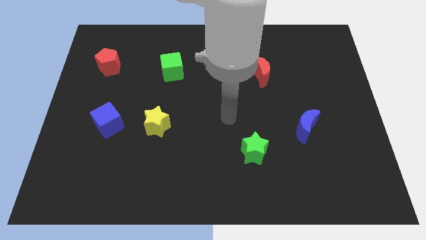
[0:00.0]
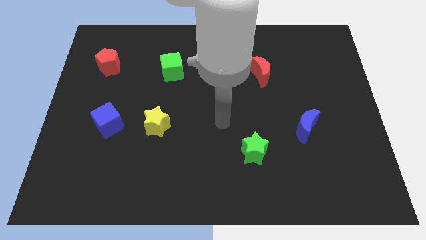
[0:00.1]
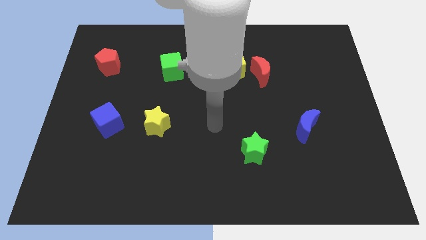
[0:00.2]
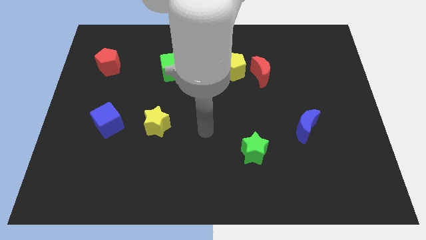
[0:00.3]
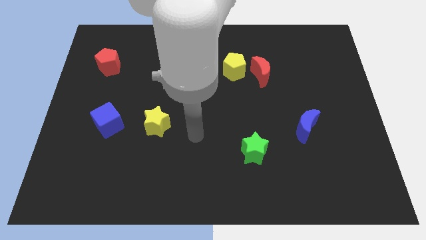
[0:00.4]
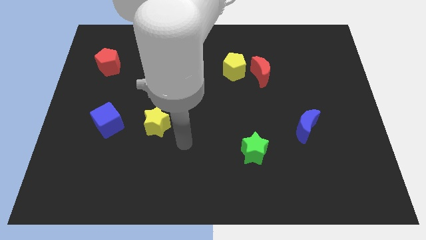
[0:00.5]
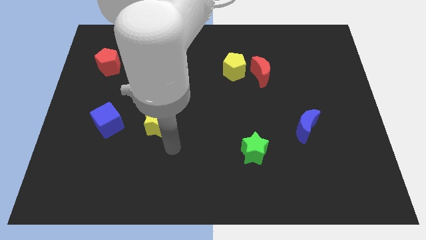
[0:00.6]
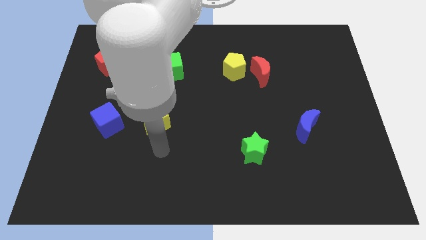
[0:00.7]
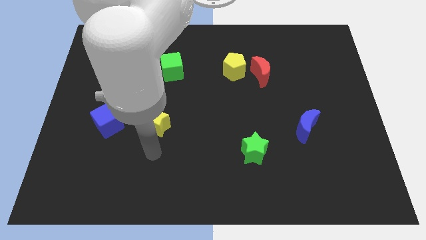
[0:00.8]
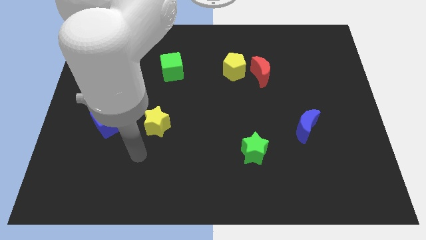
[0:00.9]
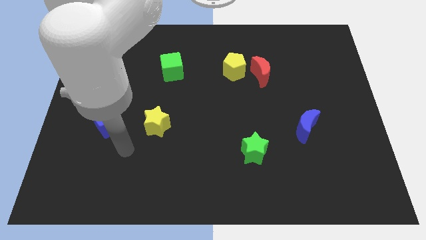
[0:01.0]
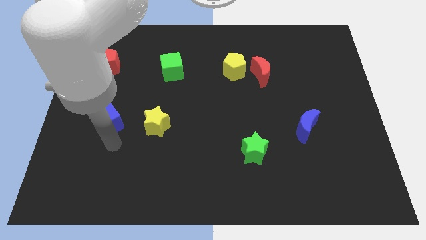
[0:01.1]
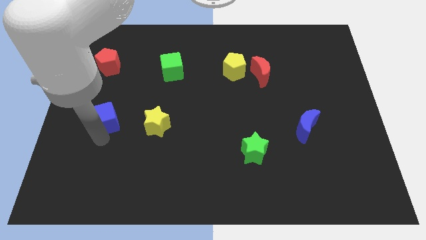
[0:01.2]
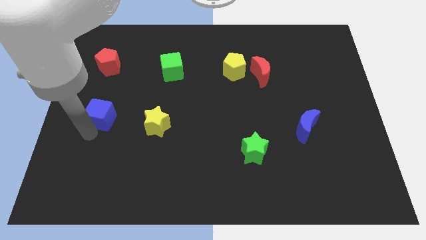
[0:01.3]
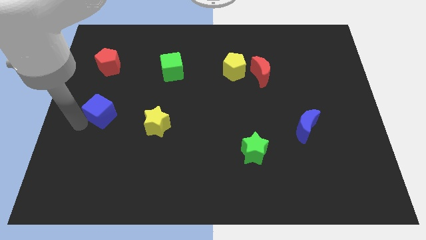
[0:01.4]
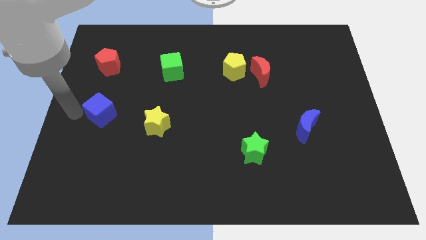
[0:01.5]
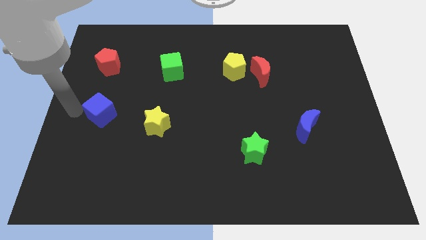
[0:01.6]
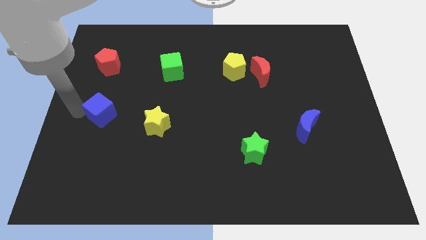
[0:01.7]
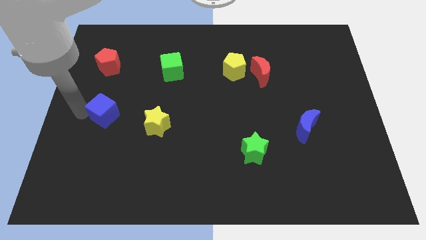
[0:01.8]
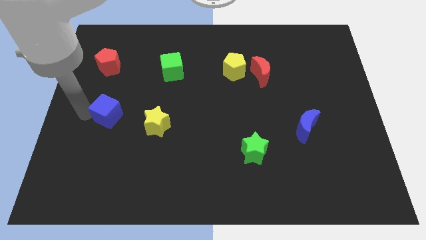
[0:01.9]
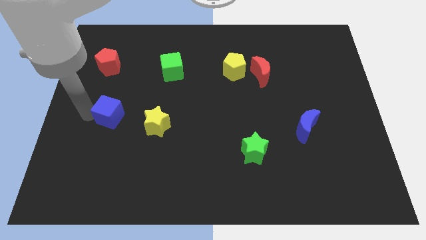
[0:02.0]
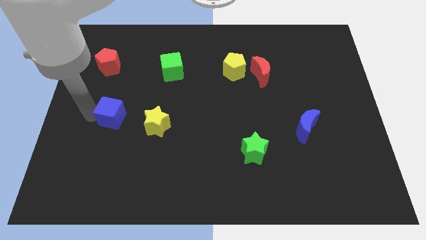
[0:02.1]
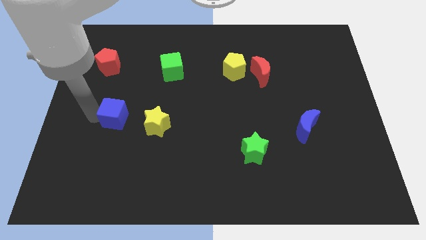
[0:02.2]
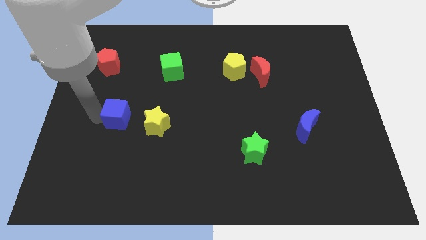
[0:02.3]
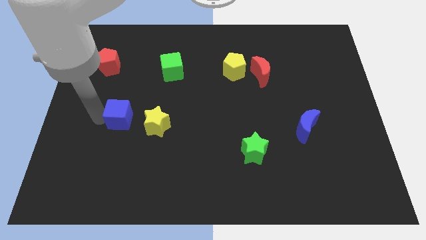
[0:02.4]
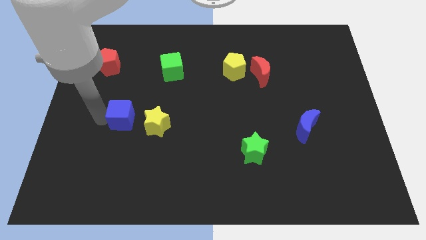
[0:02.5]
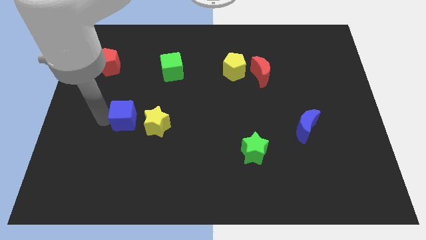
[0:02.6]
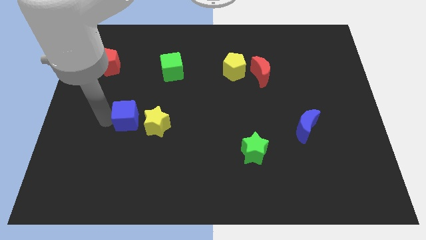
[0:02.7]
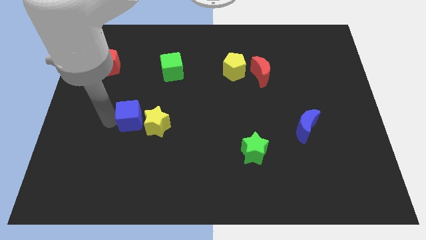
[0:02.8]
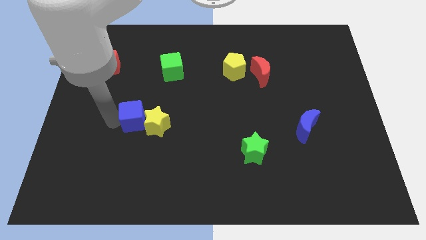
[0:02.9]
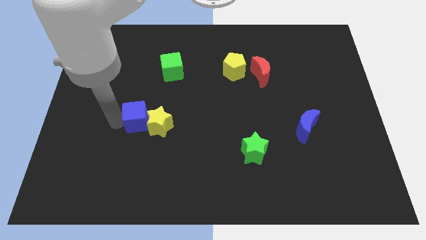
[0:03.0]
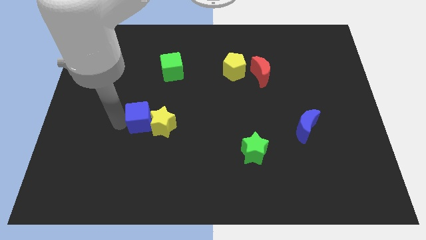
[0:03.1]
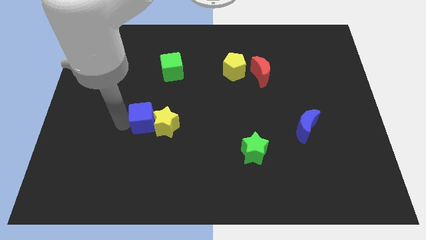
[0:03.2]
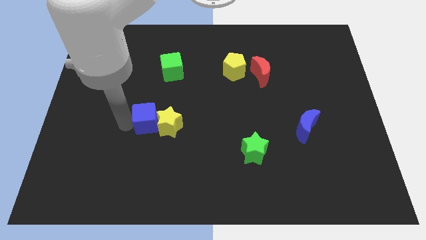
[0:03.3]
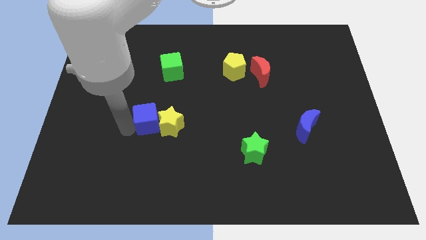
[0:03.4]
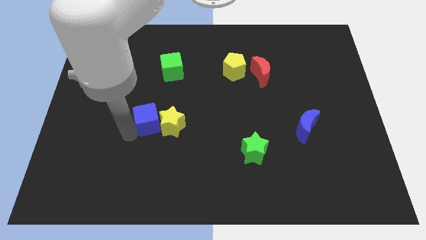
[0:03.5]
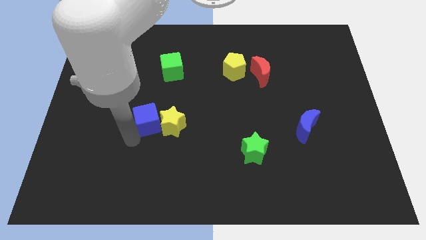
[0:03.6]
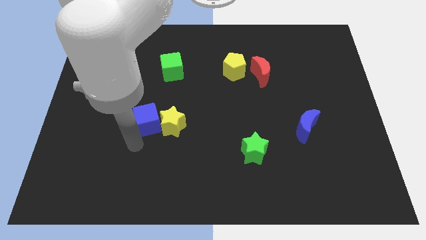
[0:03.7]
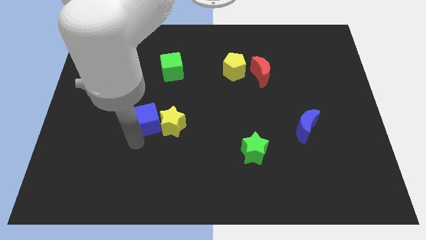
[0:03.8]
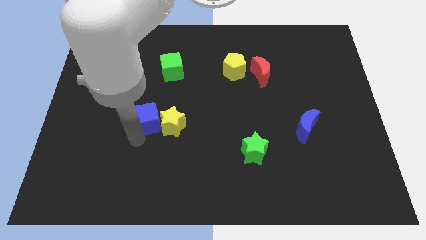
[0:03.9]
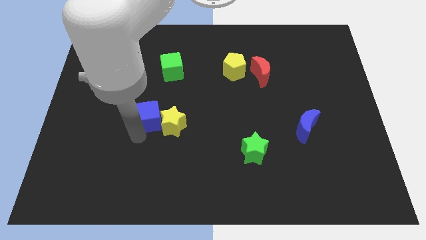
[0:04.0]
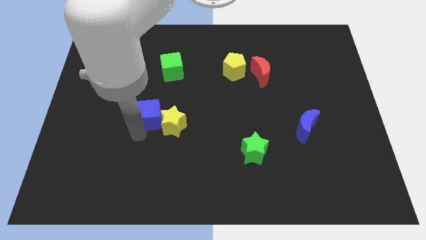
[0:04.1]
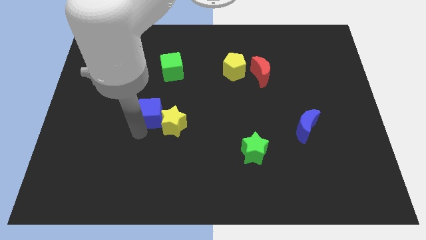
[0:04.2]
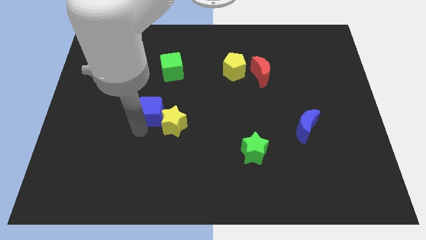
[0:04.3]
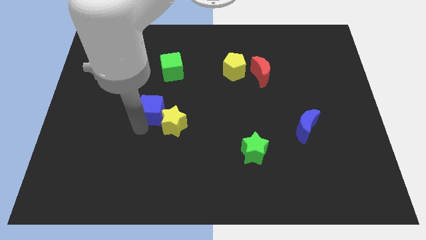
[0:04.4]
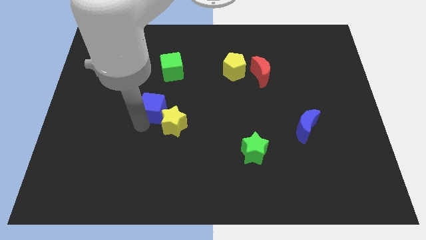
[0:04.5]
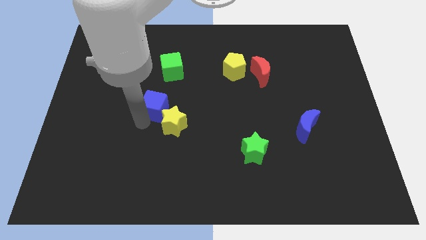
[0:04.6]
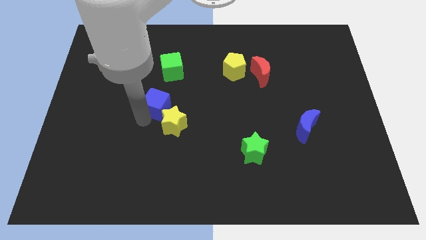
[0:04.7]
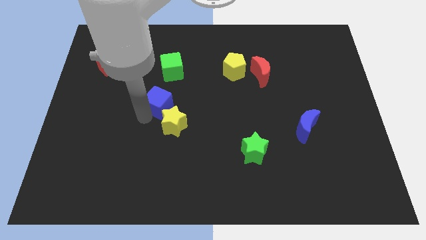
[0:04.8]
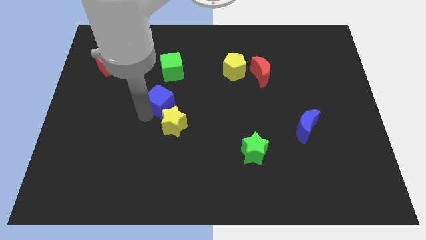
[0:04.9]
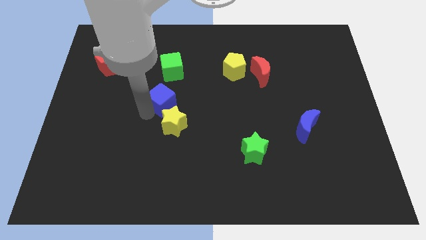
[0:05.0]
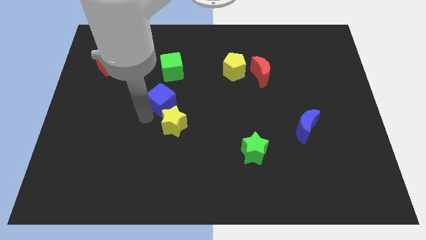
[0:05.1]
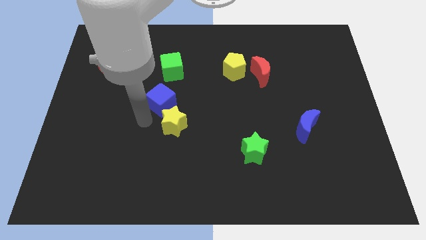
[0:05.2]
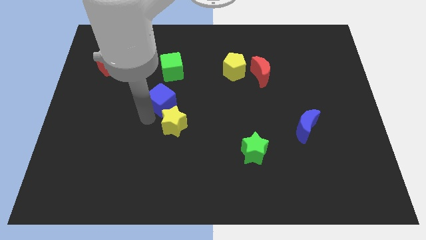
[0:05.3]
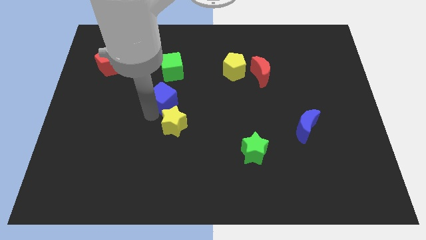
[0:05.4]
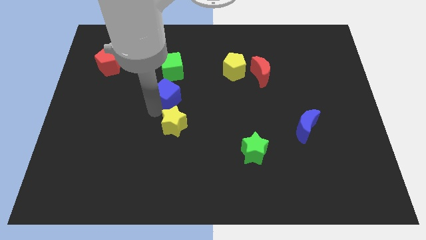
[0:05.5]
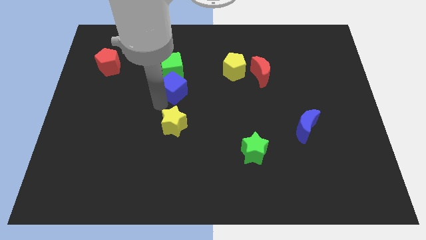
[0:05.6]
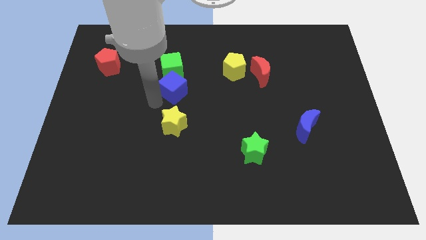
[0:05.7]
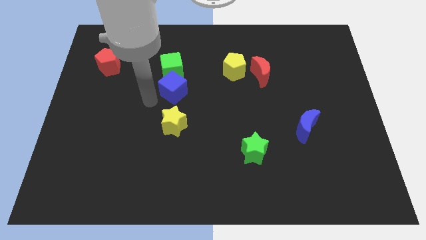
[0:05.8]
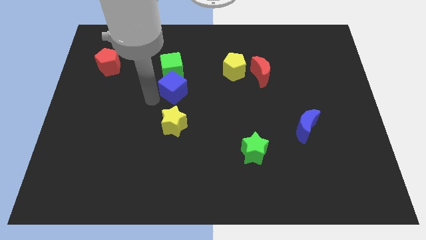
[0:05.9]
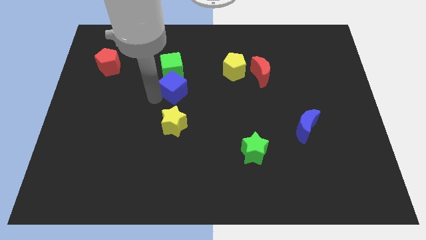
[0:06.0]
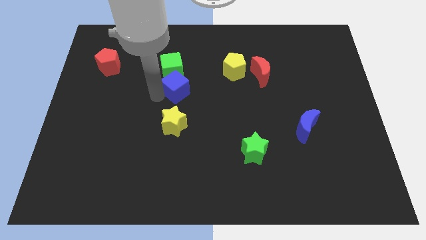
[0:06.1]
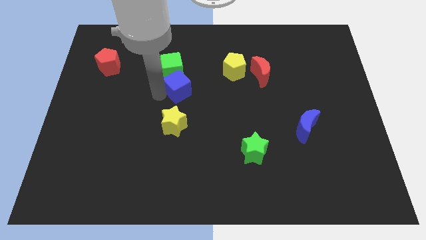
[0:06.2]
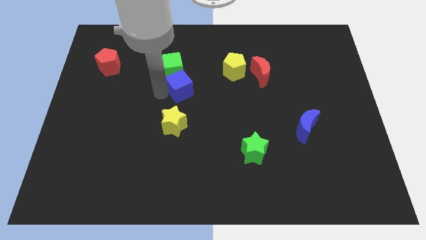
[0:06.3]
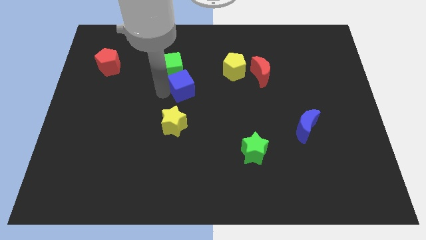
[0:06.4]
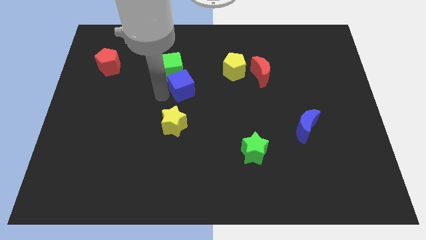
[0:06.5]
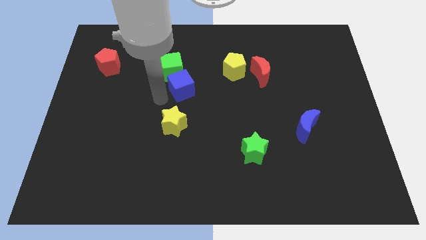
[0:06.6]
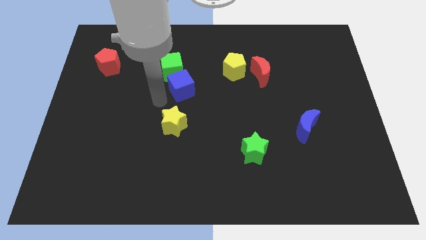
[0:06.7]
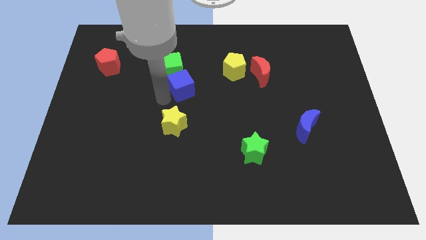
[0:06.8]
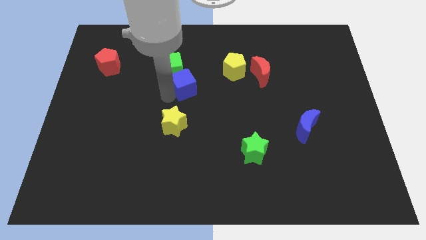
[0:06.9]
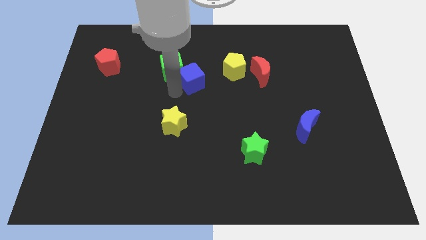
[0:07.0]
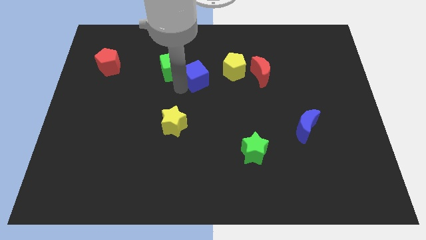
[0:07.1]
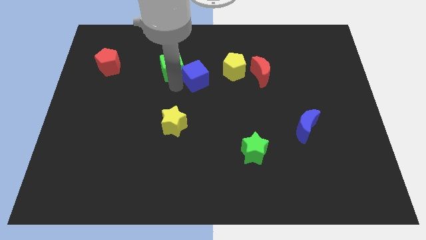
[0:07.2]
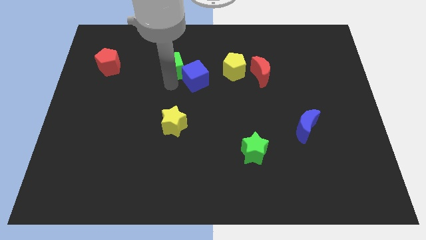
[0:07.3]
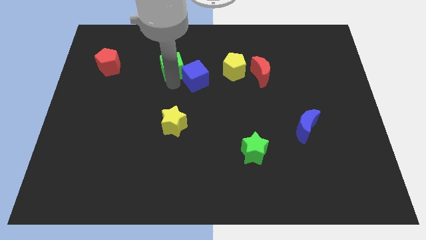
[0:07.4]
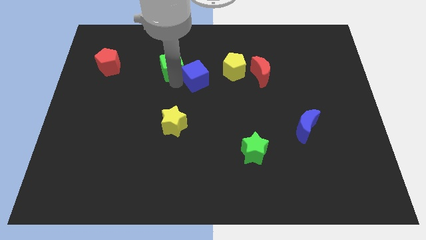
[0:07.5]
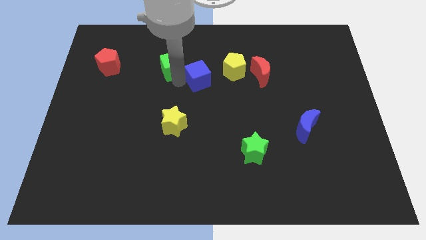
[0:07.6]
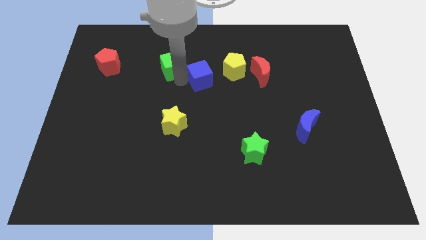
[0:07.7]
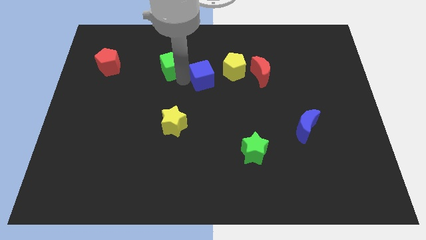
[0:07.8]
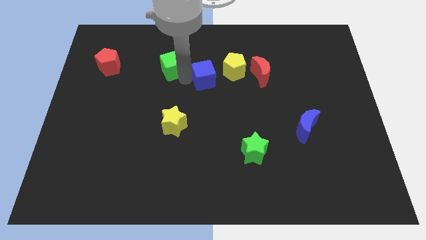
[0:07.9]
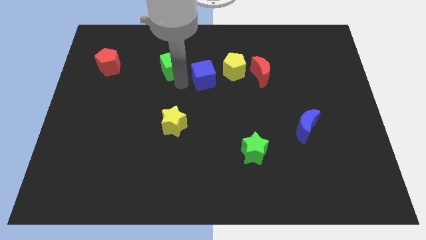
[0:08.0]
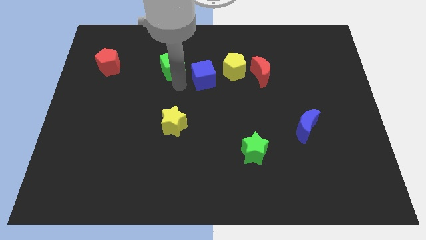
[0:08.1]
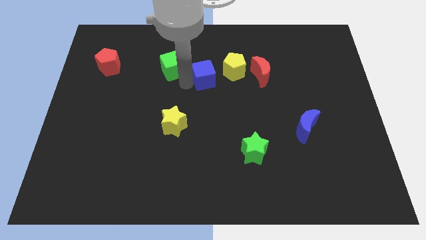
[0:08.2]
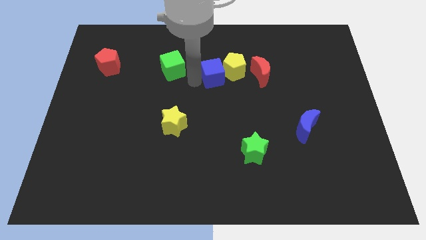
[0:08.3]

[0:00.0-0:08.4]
put the blue cube towards the yellow pentagon
